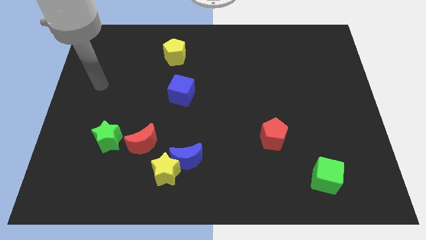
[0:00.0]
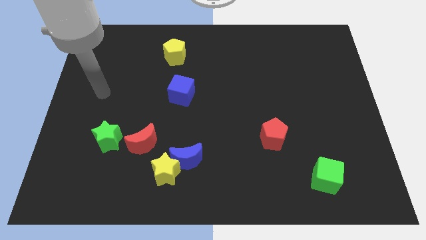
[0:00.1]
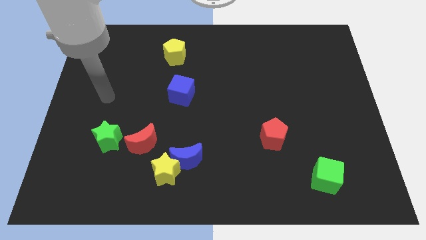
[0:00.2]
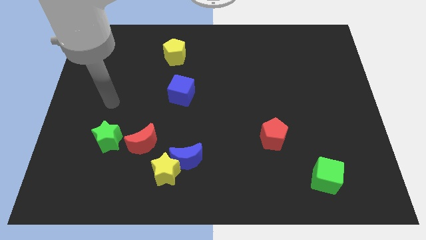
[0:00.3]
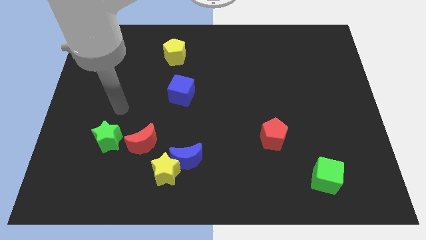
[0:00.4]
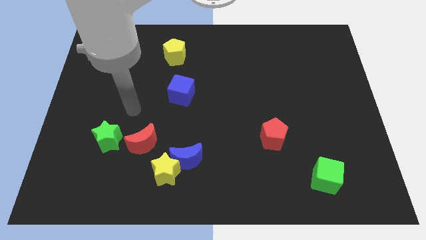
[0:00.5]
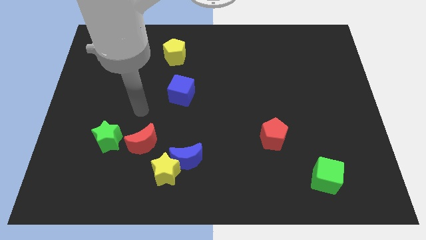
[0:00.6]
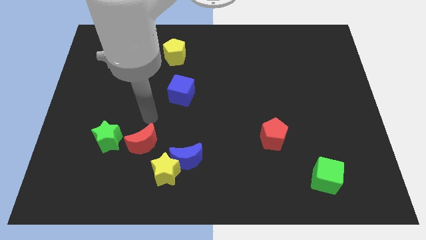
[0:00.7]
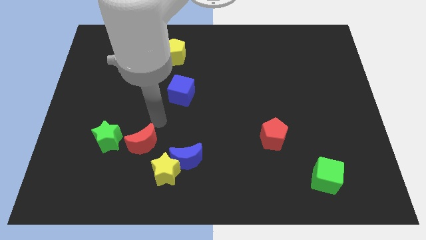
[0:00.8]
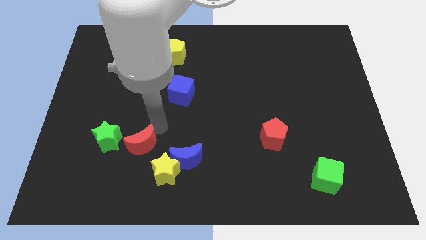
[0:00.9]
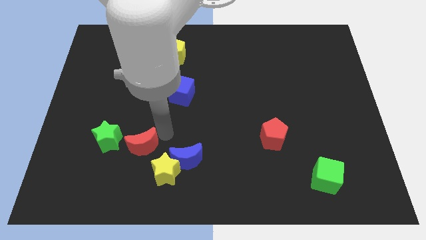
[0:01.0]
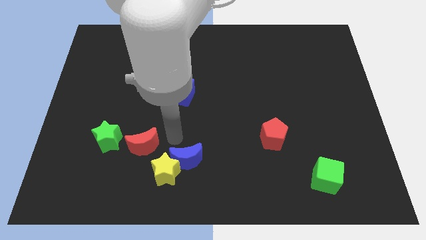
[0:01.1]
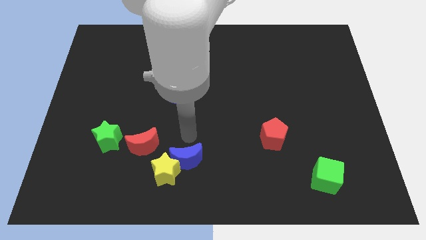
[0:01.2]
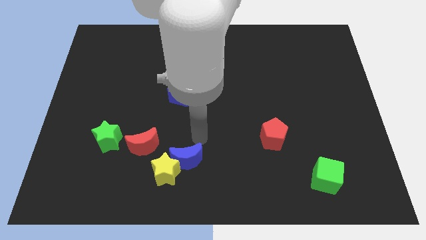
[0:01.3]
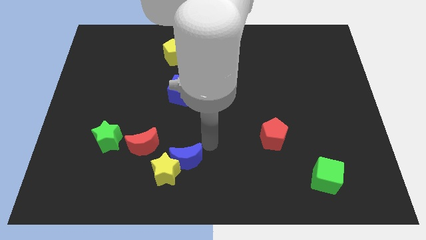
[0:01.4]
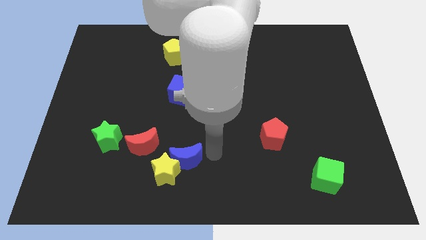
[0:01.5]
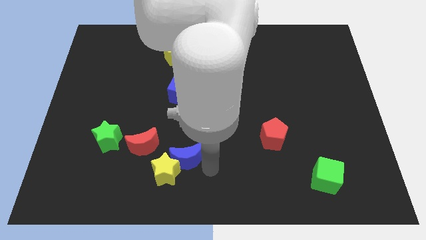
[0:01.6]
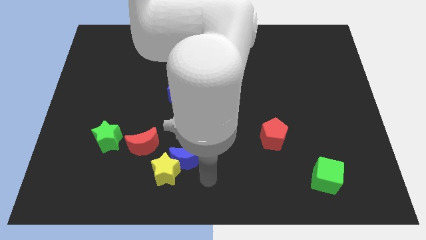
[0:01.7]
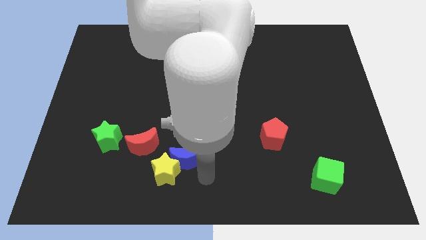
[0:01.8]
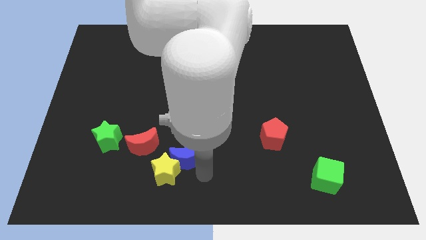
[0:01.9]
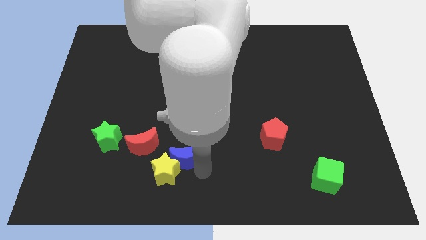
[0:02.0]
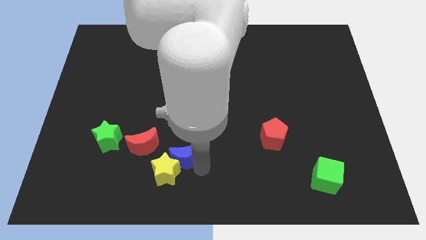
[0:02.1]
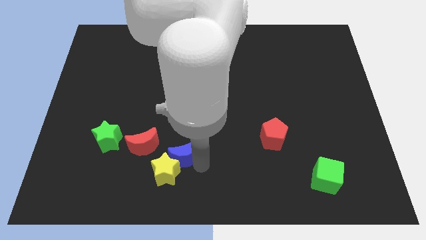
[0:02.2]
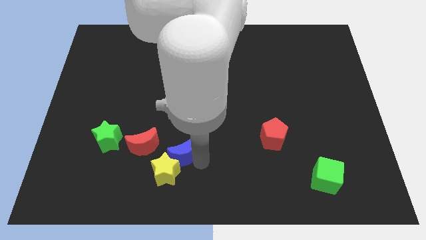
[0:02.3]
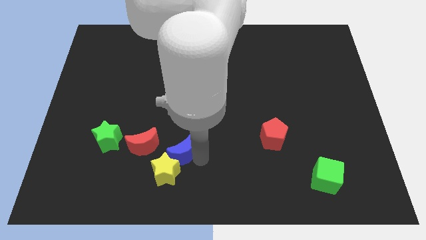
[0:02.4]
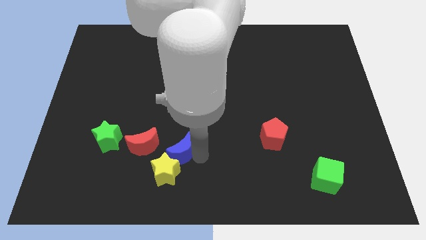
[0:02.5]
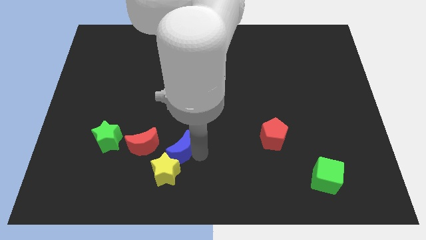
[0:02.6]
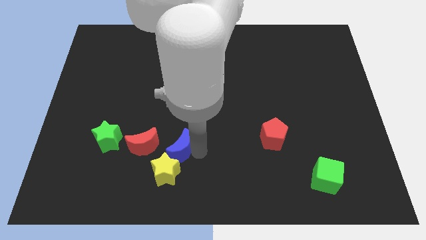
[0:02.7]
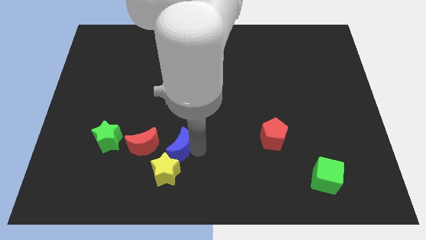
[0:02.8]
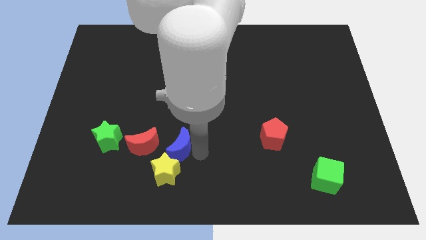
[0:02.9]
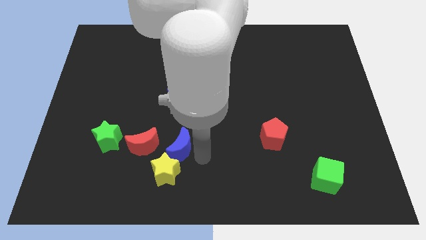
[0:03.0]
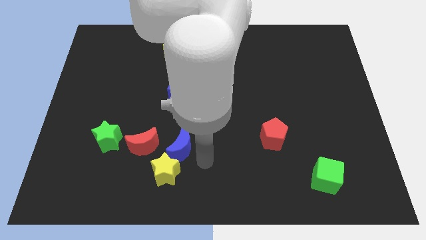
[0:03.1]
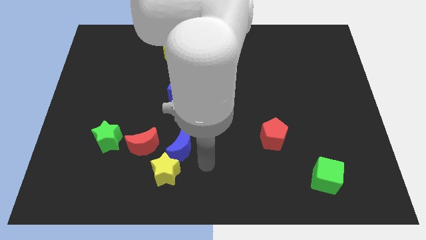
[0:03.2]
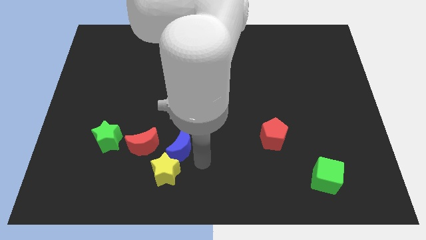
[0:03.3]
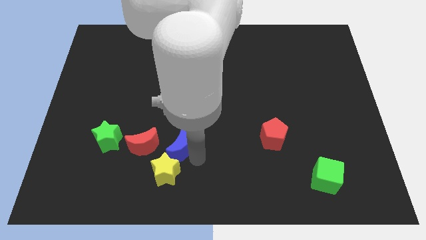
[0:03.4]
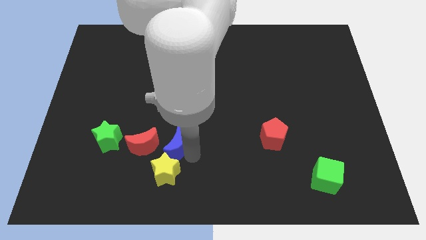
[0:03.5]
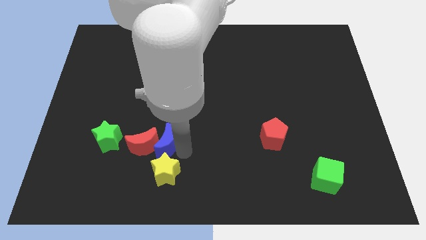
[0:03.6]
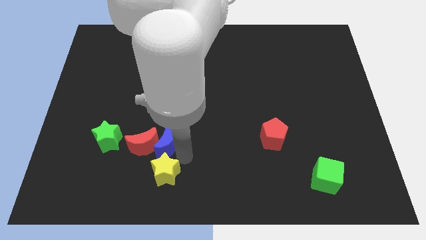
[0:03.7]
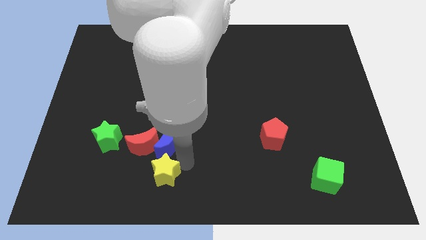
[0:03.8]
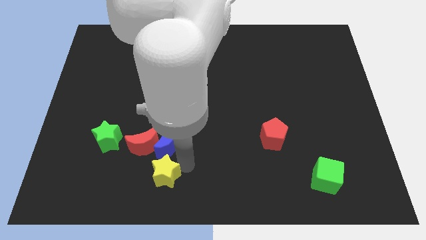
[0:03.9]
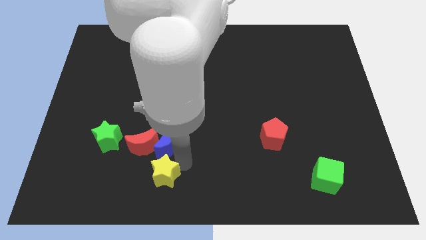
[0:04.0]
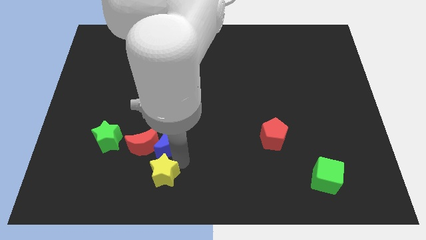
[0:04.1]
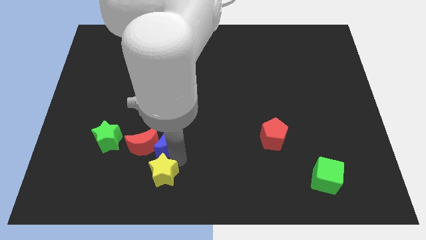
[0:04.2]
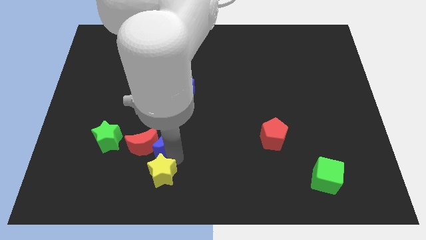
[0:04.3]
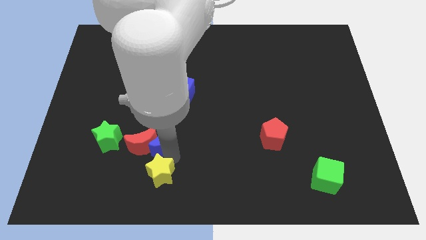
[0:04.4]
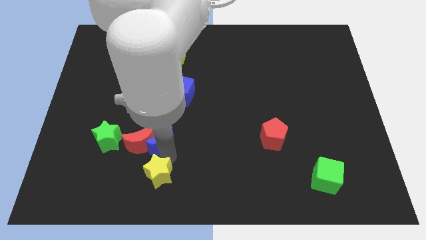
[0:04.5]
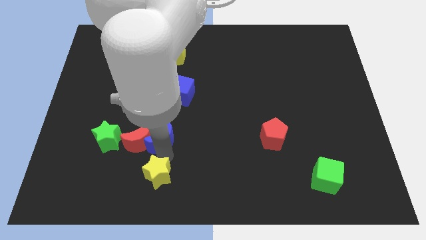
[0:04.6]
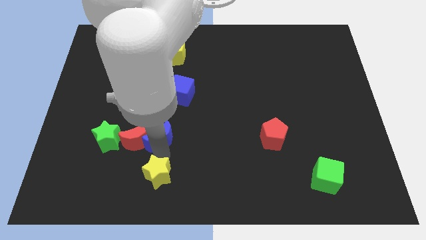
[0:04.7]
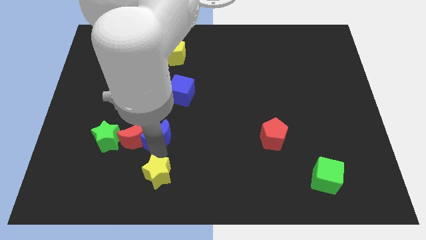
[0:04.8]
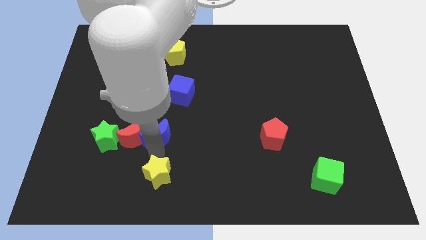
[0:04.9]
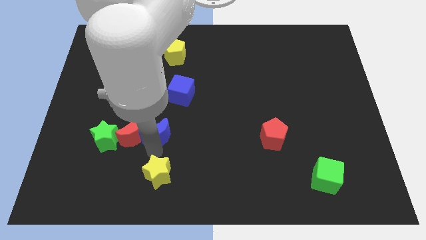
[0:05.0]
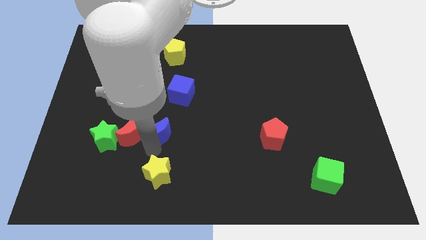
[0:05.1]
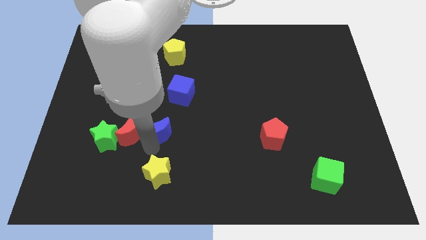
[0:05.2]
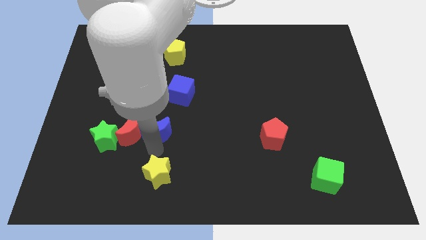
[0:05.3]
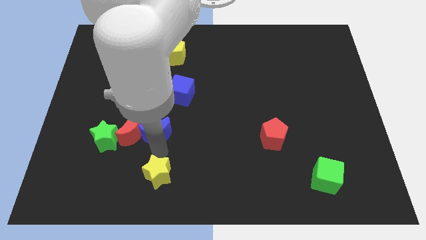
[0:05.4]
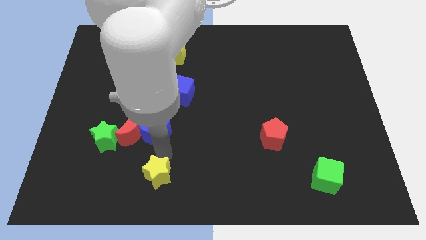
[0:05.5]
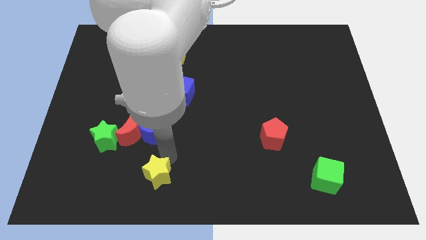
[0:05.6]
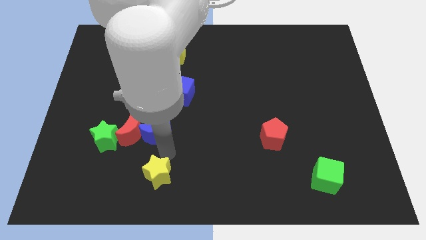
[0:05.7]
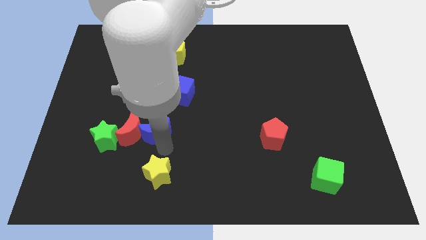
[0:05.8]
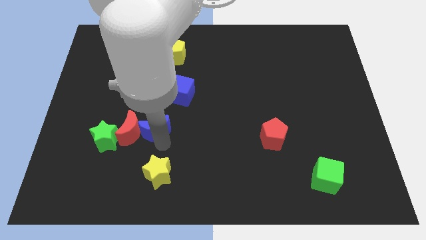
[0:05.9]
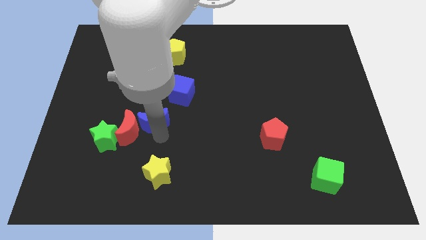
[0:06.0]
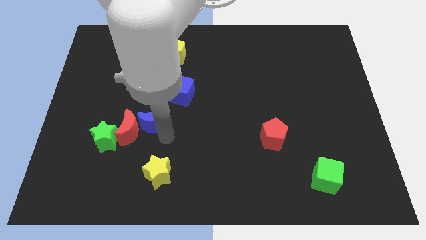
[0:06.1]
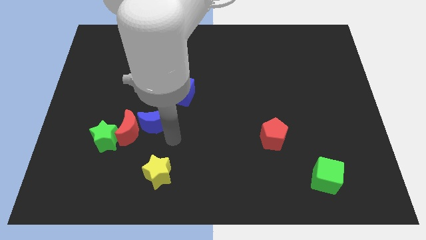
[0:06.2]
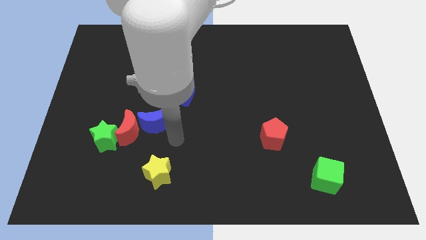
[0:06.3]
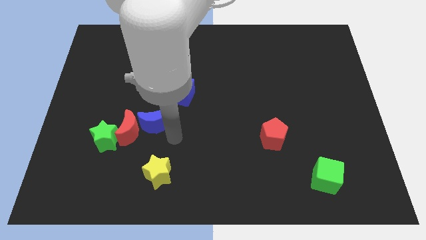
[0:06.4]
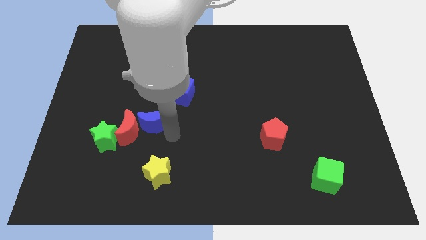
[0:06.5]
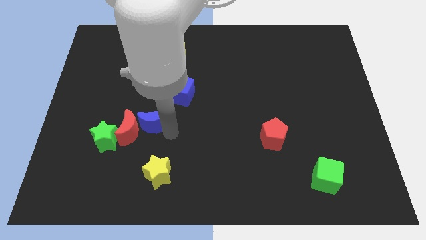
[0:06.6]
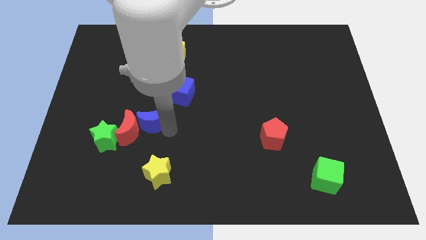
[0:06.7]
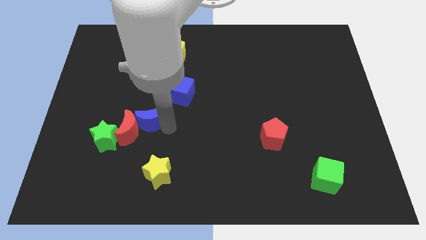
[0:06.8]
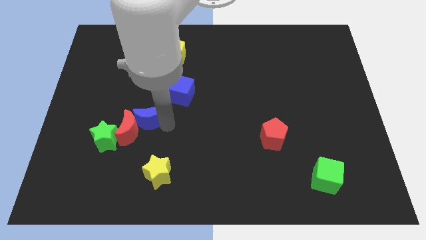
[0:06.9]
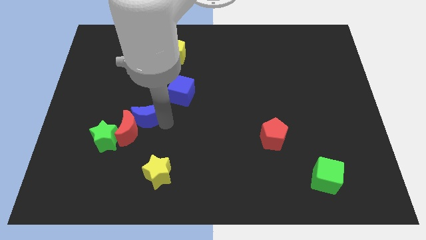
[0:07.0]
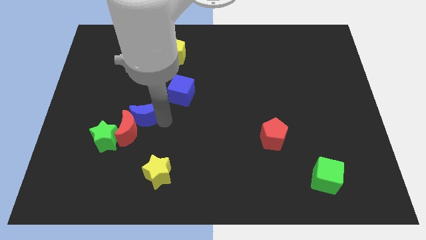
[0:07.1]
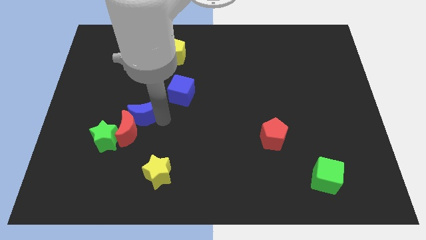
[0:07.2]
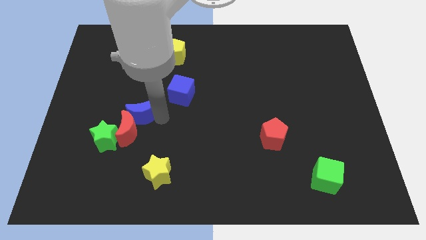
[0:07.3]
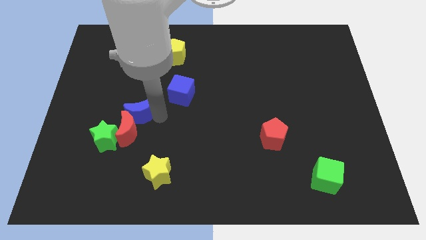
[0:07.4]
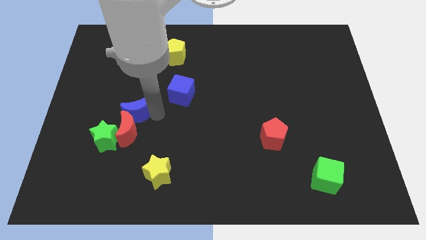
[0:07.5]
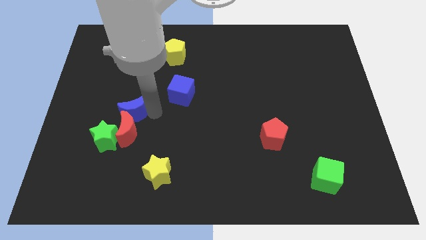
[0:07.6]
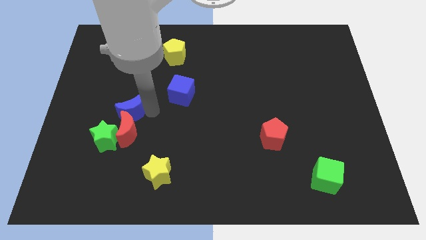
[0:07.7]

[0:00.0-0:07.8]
push the blue moon to the top side of the green star
